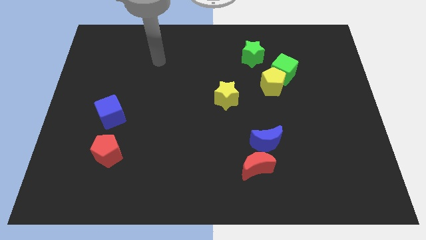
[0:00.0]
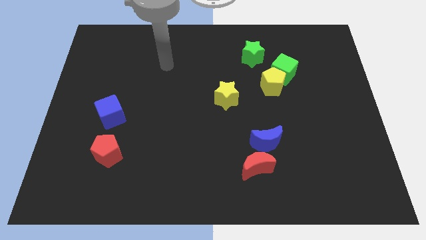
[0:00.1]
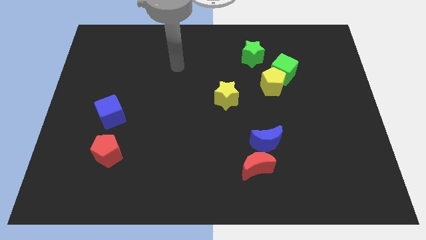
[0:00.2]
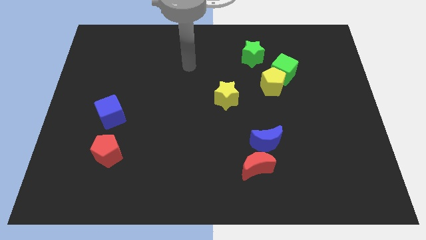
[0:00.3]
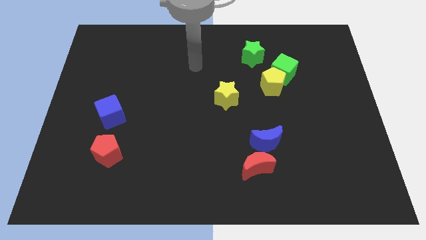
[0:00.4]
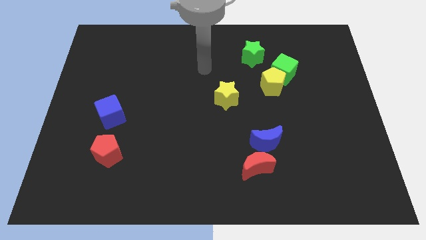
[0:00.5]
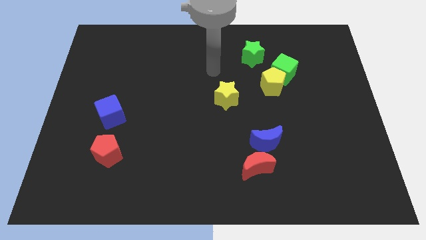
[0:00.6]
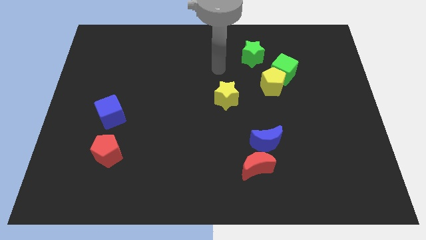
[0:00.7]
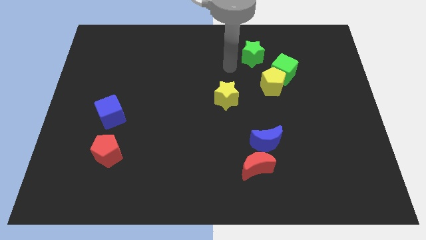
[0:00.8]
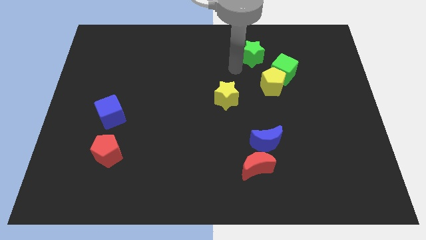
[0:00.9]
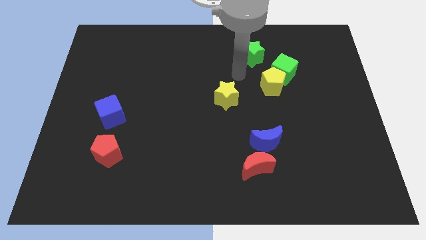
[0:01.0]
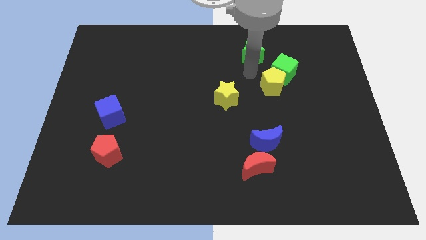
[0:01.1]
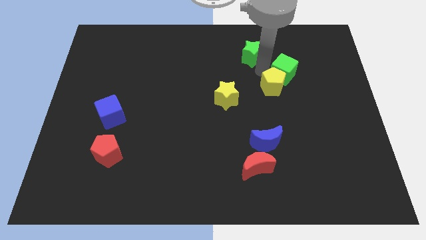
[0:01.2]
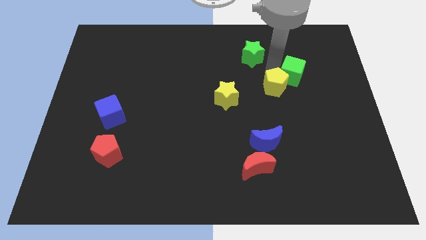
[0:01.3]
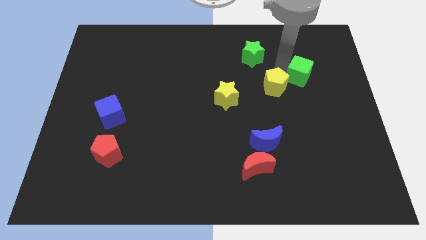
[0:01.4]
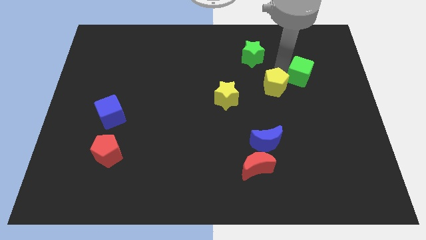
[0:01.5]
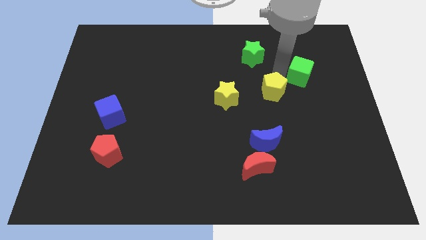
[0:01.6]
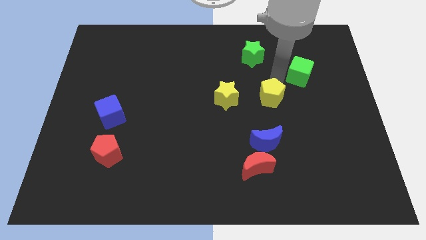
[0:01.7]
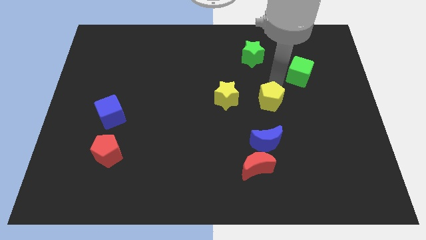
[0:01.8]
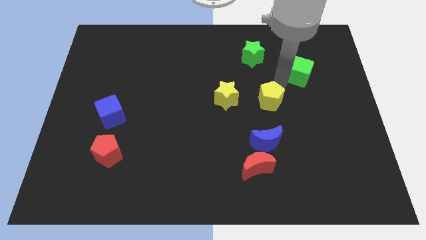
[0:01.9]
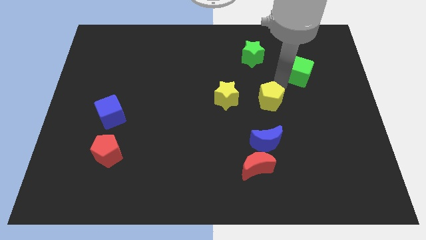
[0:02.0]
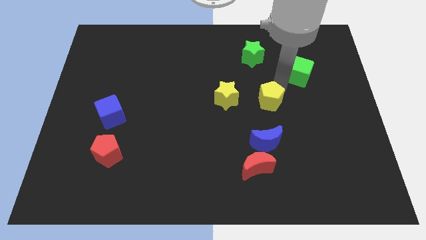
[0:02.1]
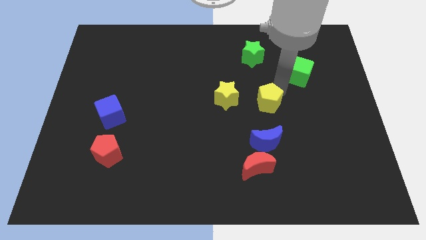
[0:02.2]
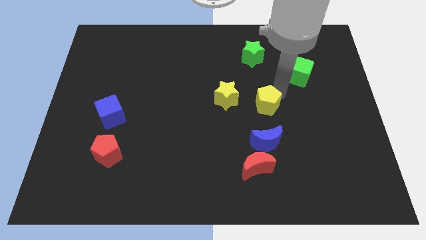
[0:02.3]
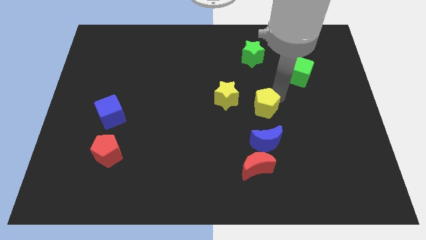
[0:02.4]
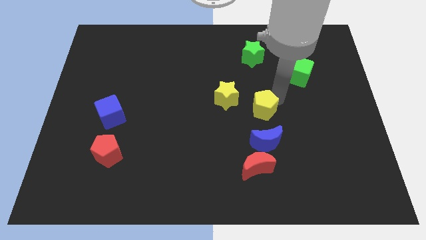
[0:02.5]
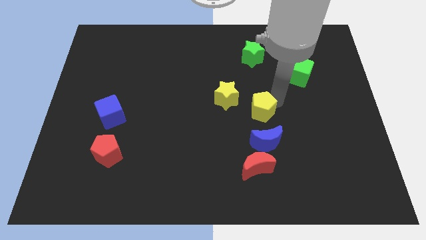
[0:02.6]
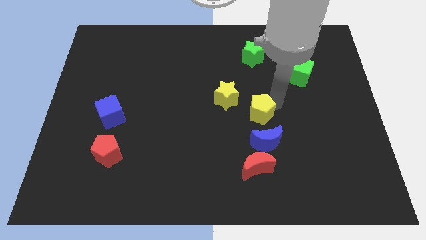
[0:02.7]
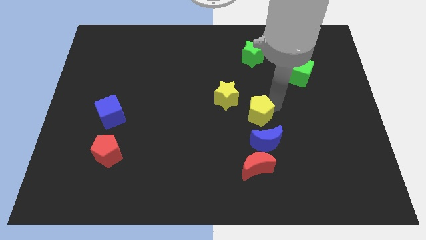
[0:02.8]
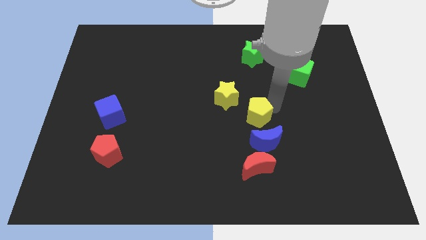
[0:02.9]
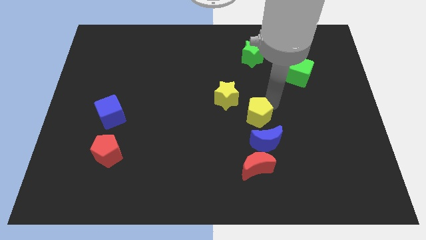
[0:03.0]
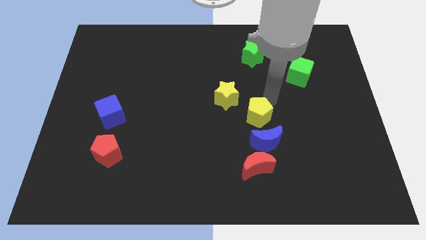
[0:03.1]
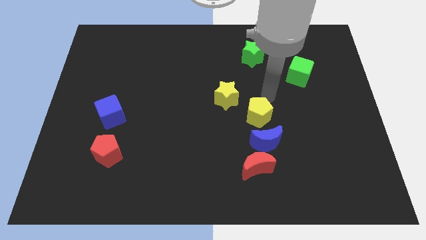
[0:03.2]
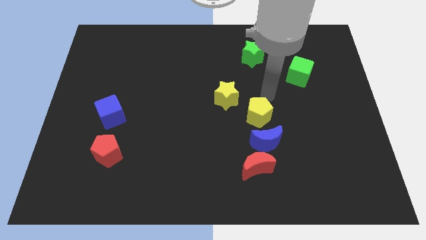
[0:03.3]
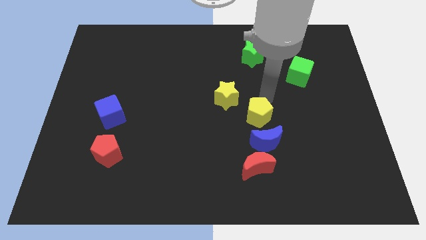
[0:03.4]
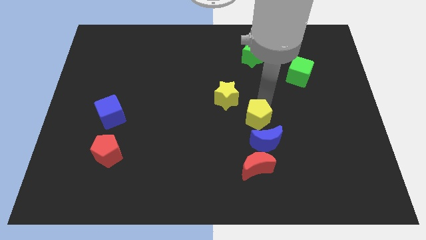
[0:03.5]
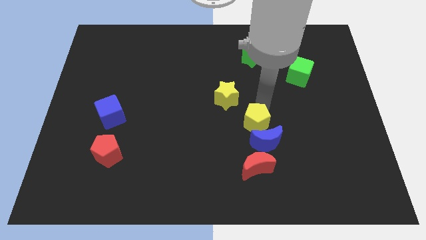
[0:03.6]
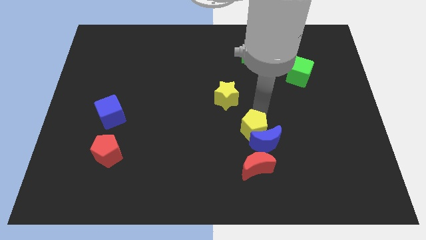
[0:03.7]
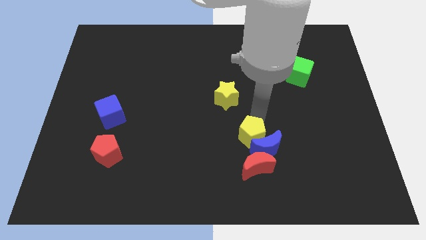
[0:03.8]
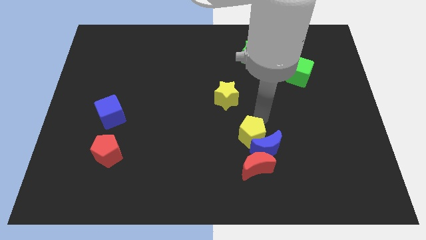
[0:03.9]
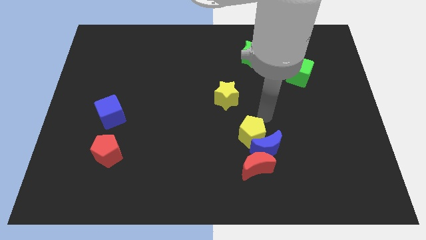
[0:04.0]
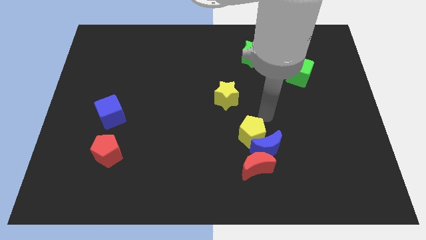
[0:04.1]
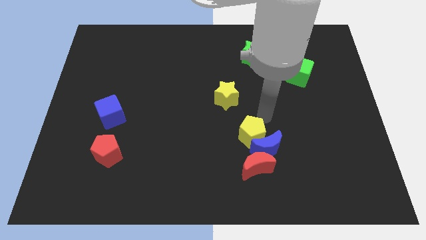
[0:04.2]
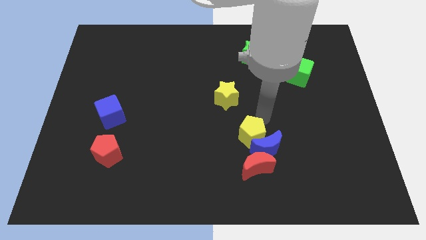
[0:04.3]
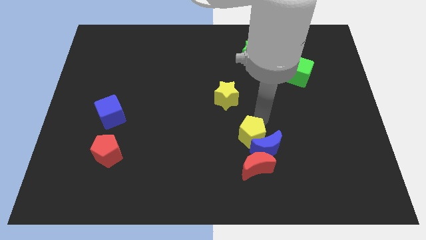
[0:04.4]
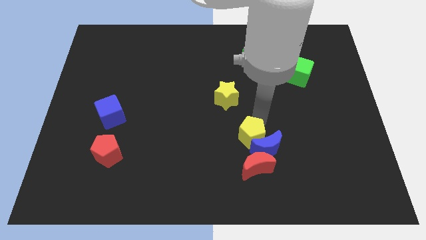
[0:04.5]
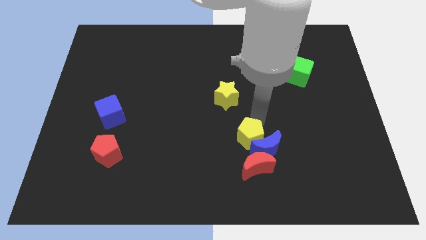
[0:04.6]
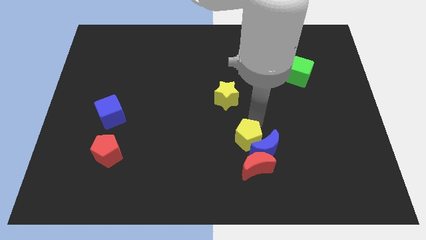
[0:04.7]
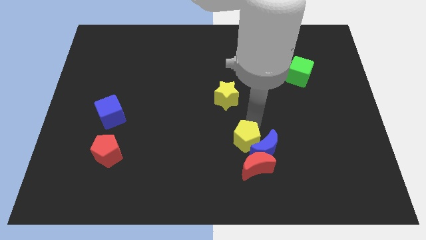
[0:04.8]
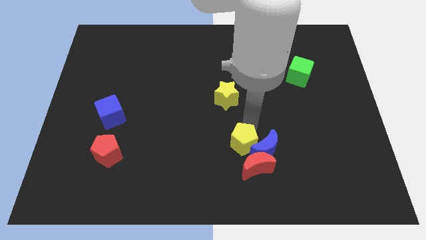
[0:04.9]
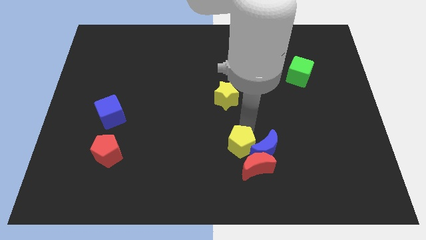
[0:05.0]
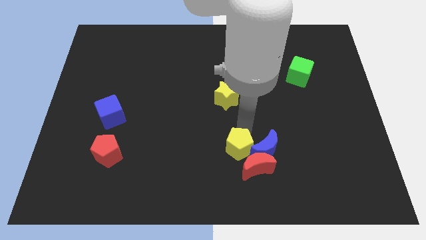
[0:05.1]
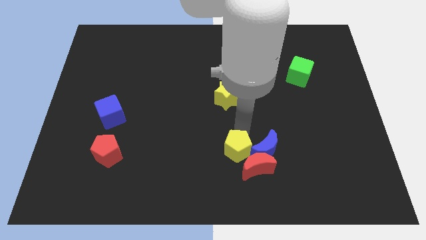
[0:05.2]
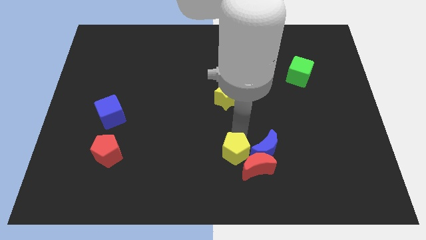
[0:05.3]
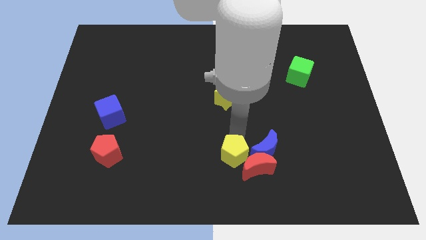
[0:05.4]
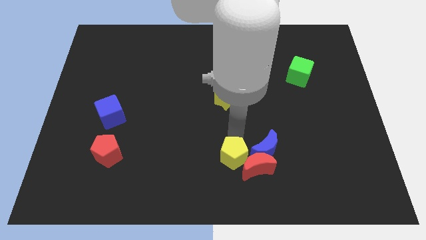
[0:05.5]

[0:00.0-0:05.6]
push the yellow pentagon to the bottom side

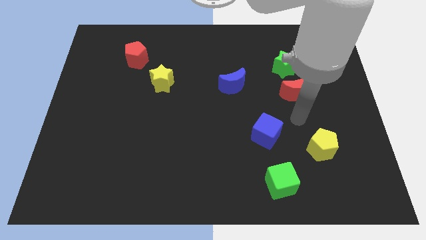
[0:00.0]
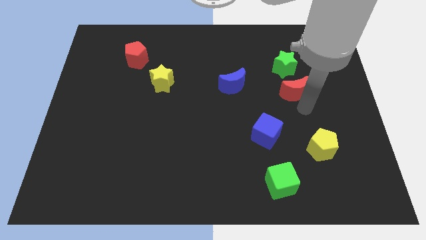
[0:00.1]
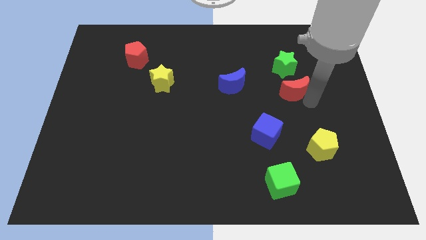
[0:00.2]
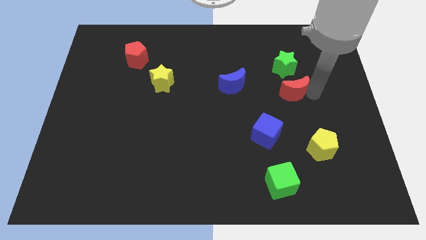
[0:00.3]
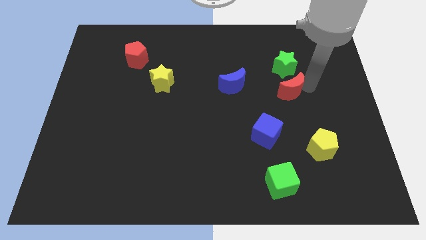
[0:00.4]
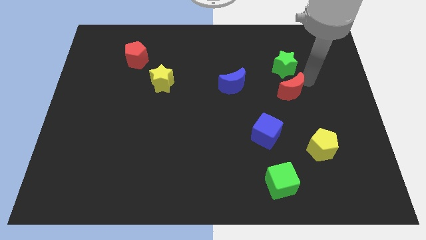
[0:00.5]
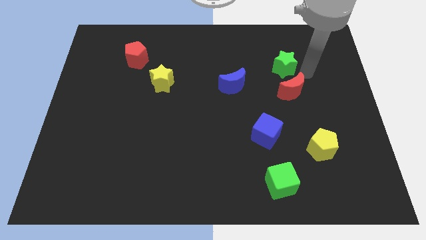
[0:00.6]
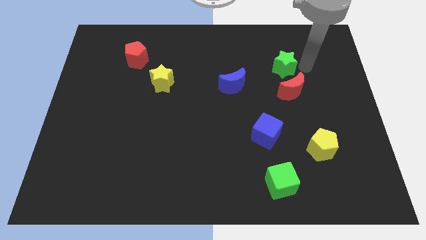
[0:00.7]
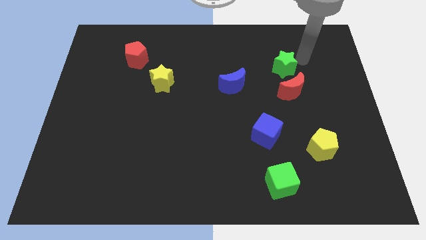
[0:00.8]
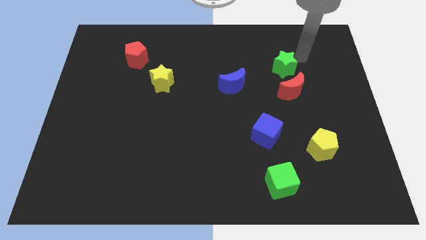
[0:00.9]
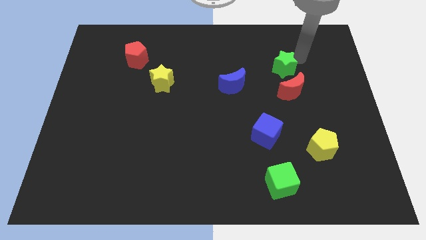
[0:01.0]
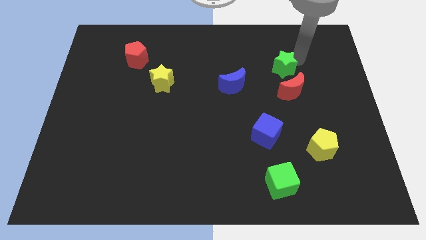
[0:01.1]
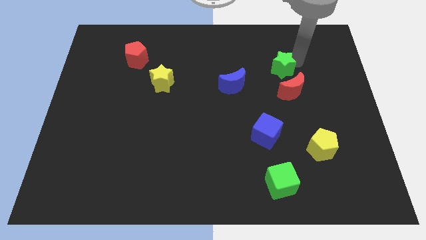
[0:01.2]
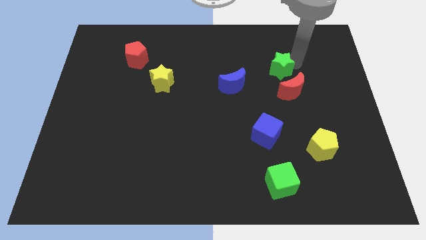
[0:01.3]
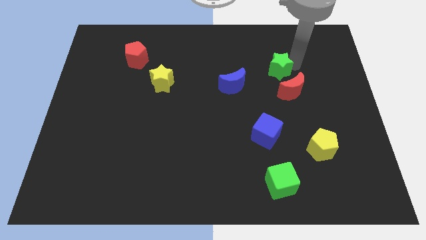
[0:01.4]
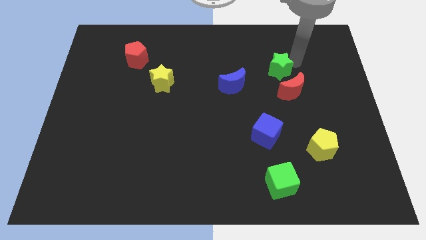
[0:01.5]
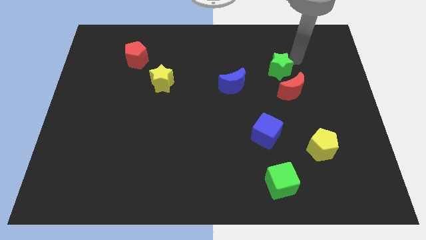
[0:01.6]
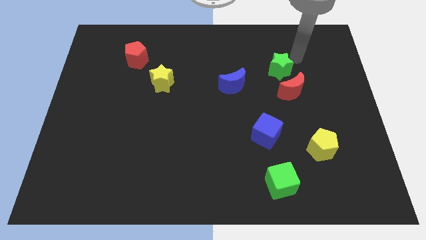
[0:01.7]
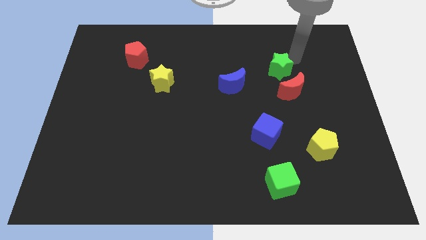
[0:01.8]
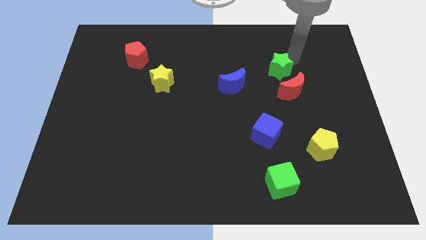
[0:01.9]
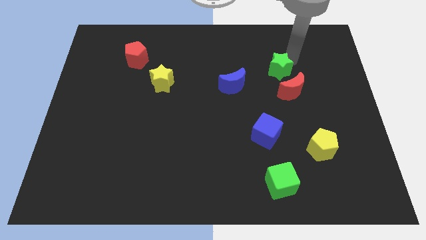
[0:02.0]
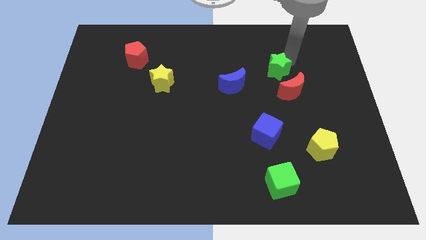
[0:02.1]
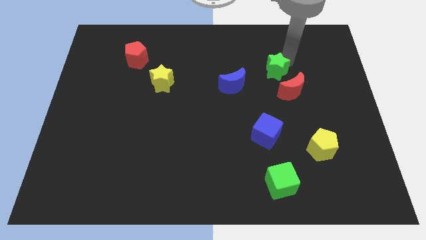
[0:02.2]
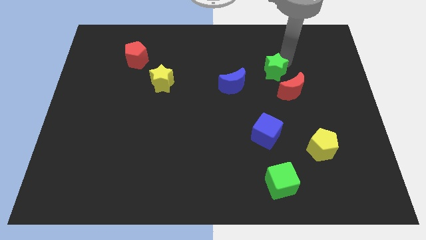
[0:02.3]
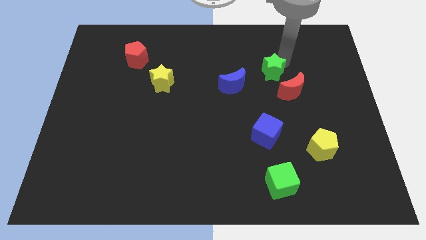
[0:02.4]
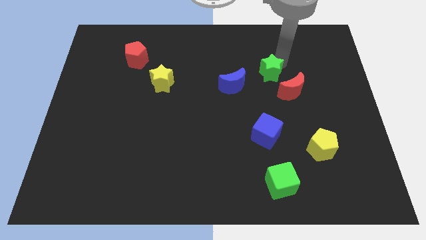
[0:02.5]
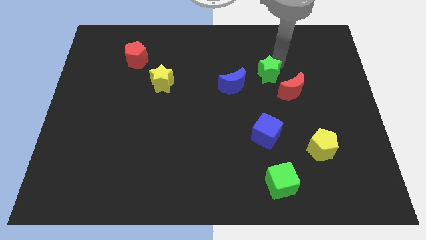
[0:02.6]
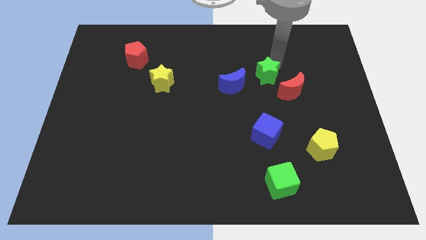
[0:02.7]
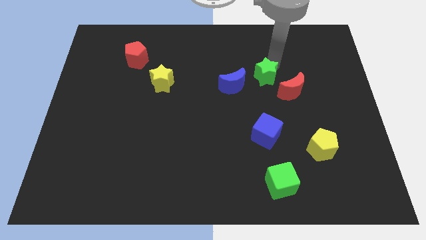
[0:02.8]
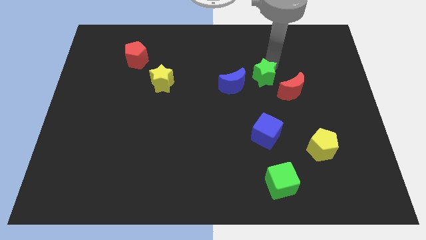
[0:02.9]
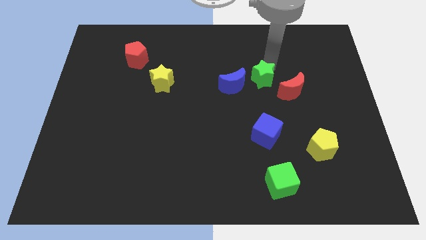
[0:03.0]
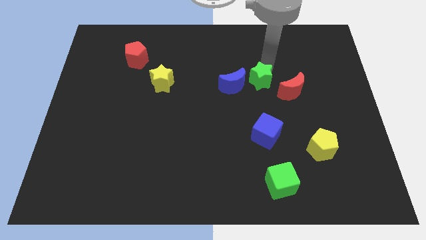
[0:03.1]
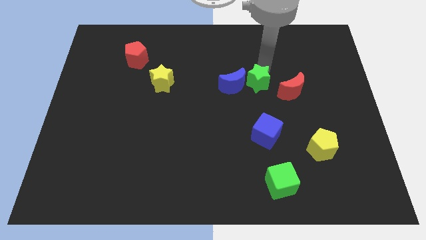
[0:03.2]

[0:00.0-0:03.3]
put the green star to the center
